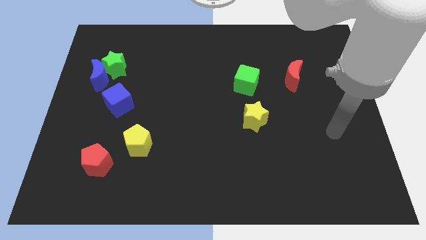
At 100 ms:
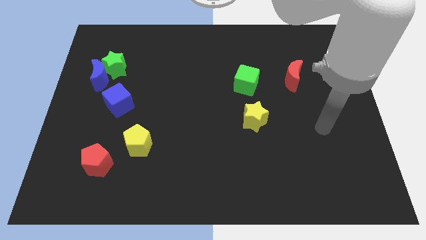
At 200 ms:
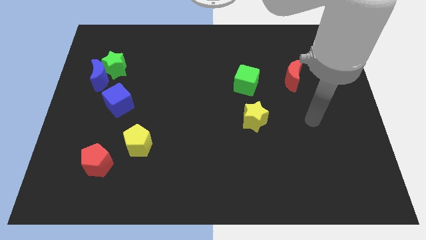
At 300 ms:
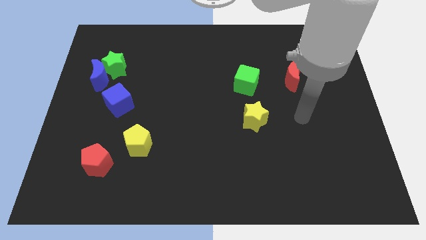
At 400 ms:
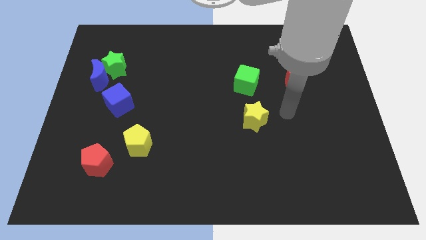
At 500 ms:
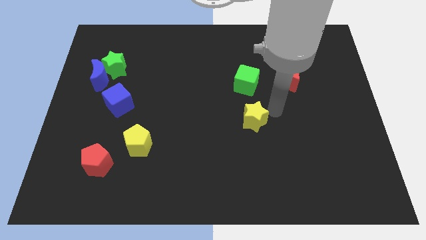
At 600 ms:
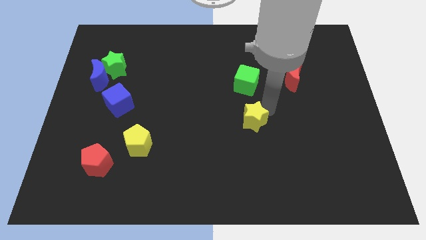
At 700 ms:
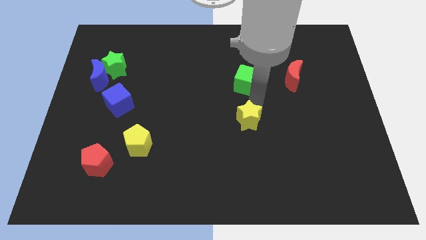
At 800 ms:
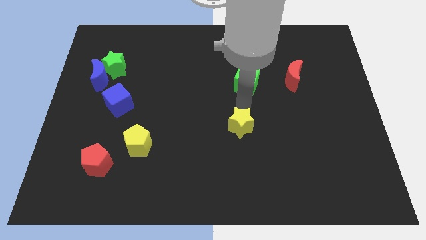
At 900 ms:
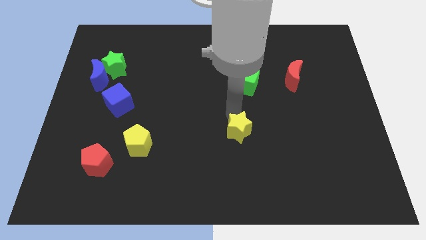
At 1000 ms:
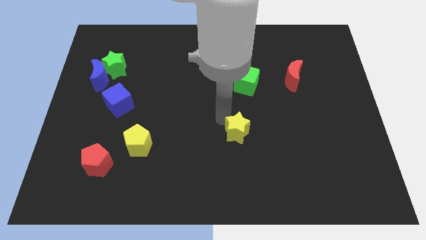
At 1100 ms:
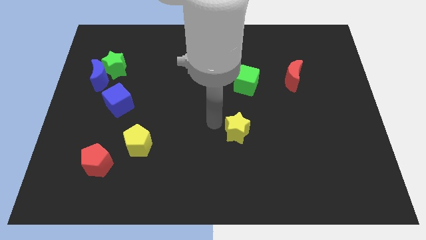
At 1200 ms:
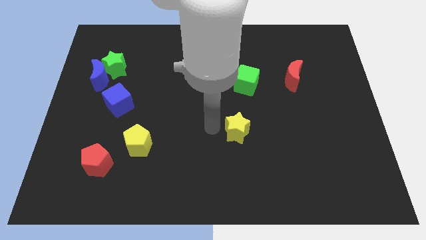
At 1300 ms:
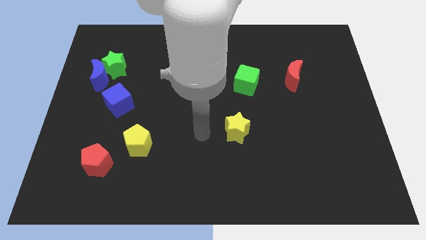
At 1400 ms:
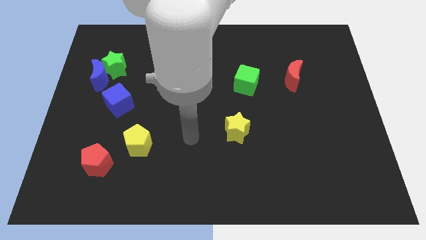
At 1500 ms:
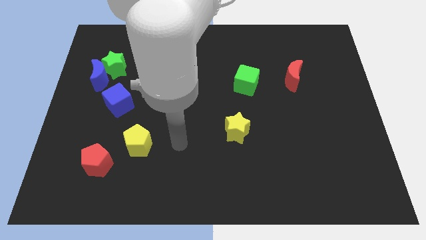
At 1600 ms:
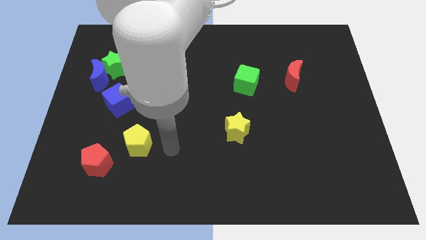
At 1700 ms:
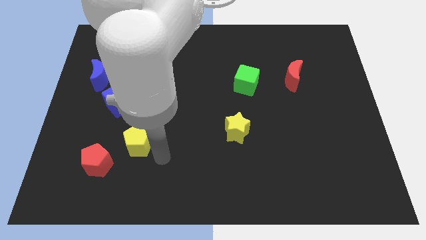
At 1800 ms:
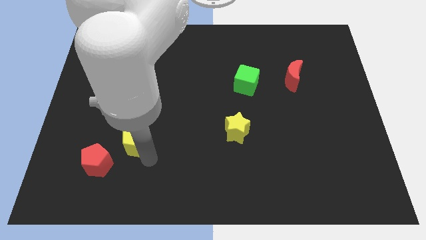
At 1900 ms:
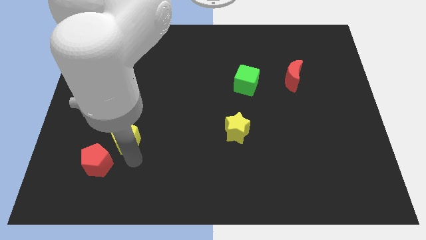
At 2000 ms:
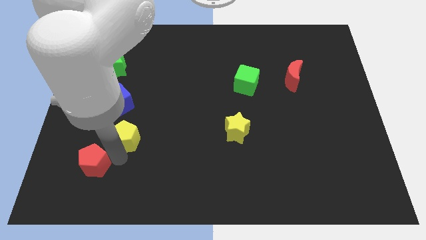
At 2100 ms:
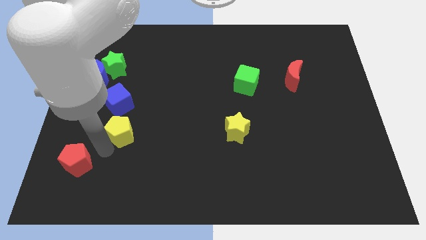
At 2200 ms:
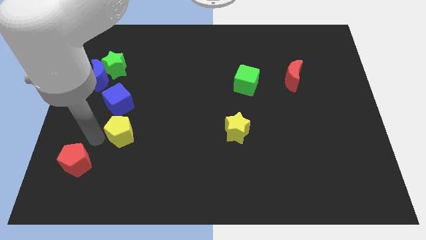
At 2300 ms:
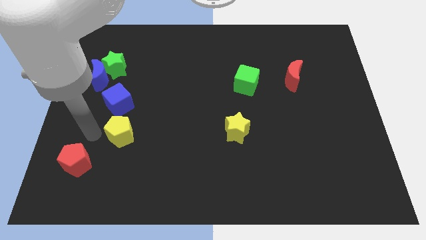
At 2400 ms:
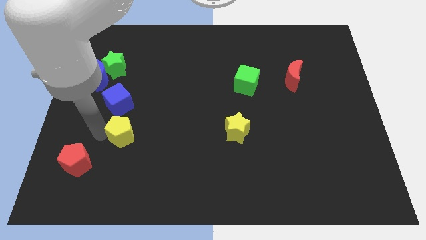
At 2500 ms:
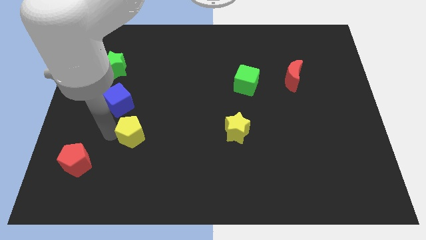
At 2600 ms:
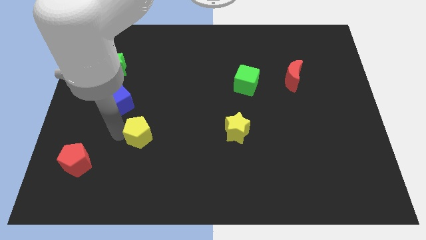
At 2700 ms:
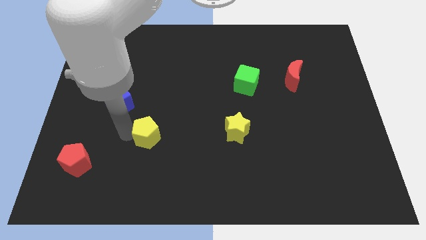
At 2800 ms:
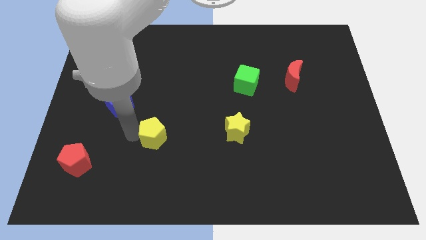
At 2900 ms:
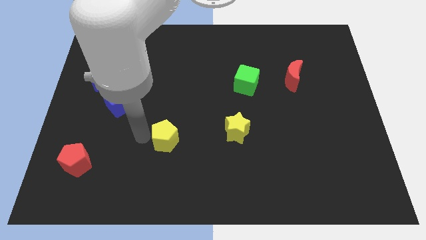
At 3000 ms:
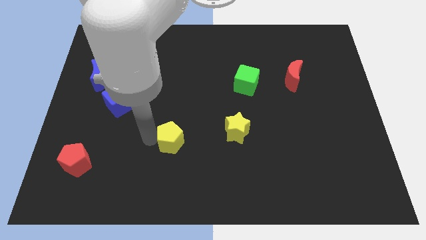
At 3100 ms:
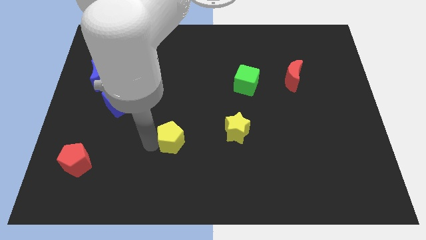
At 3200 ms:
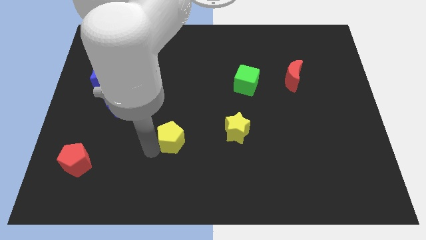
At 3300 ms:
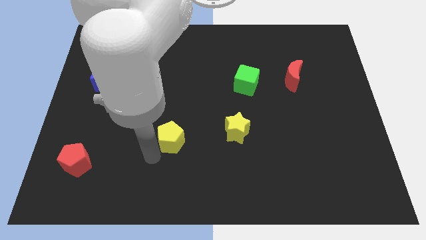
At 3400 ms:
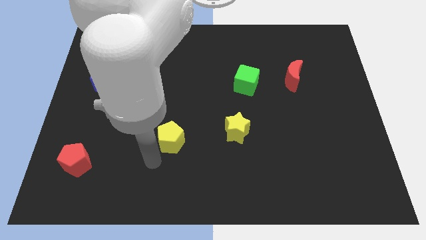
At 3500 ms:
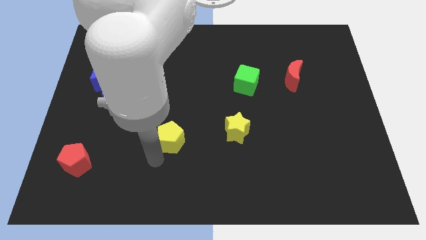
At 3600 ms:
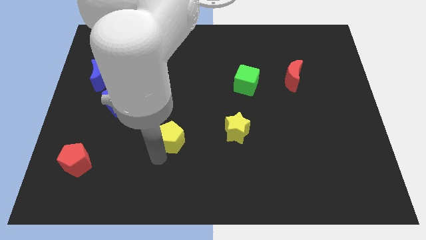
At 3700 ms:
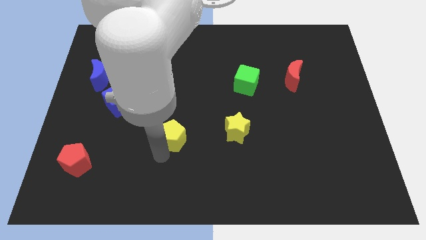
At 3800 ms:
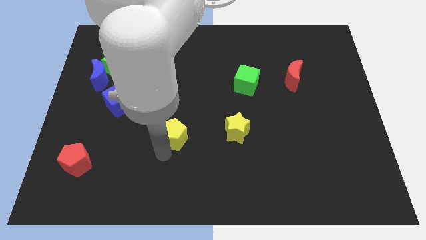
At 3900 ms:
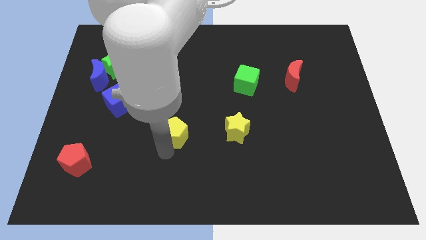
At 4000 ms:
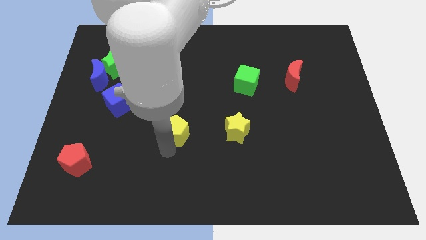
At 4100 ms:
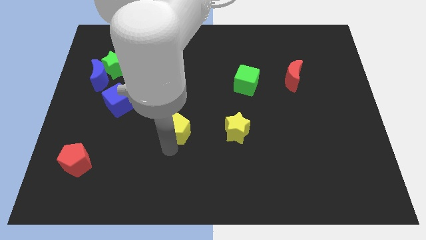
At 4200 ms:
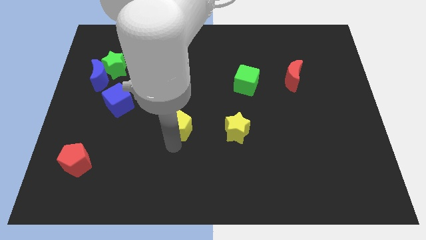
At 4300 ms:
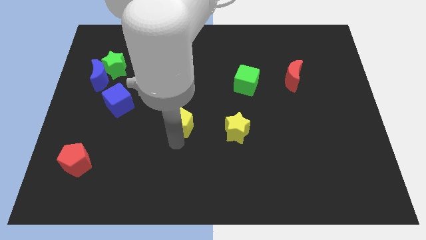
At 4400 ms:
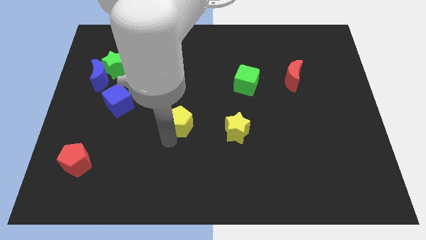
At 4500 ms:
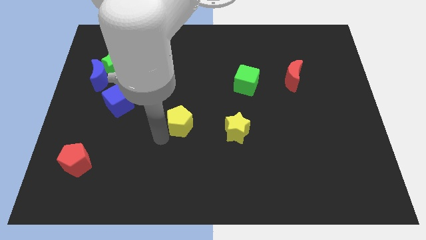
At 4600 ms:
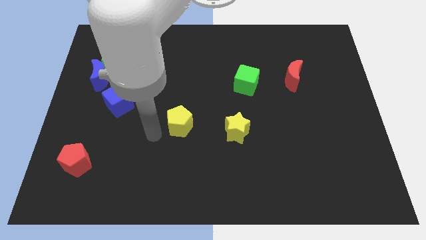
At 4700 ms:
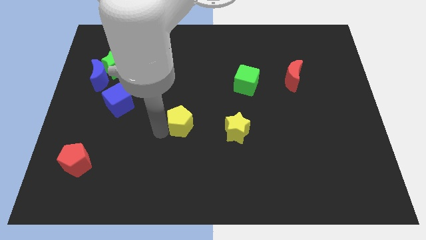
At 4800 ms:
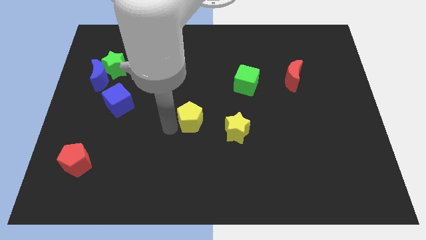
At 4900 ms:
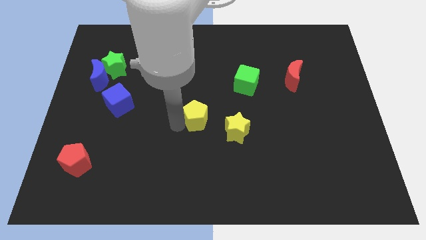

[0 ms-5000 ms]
slide the yellow pentagon to the top left side of the yellow star

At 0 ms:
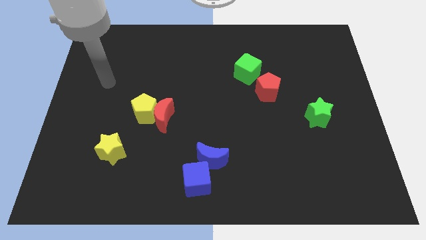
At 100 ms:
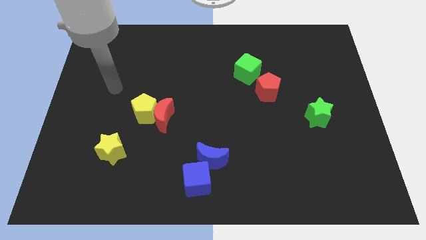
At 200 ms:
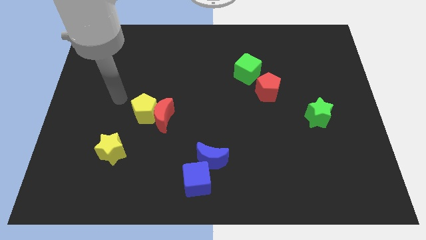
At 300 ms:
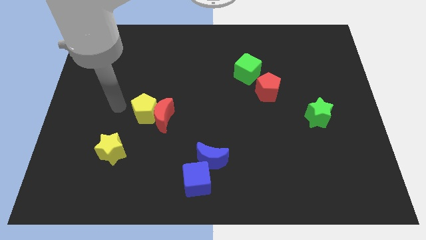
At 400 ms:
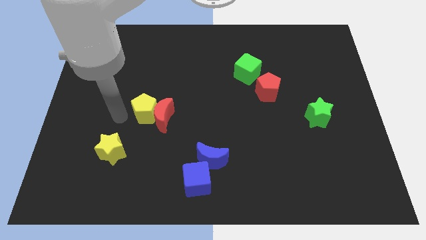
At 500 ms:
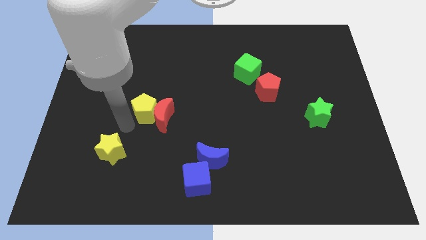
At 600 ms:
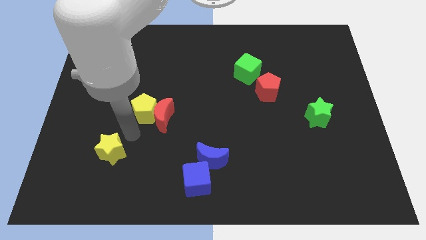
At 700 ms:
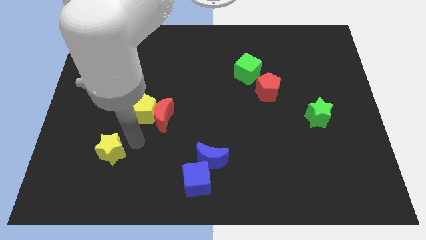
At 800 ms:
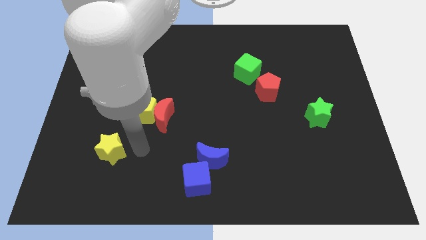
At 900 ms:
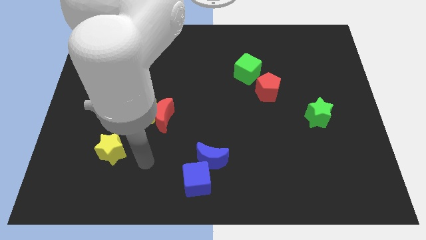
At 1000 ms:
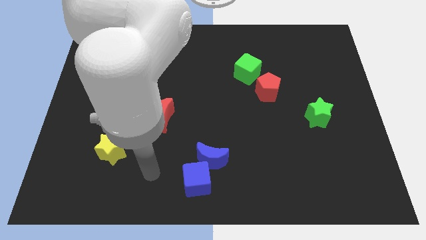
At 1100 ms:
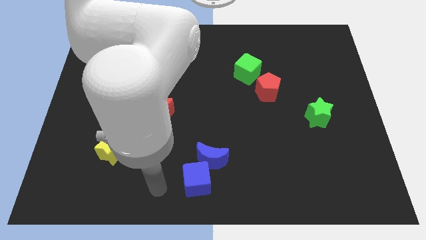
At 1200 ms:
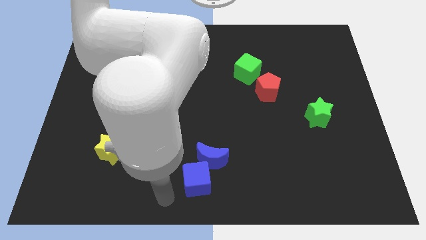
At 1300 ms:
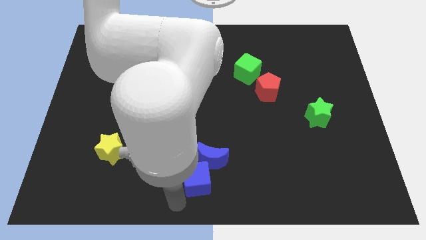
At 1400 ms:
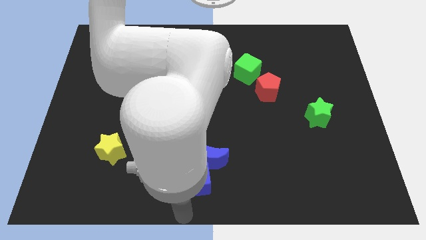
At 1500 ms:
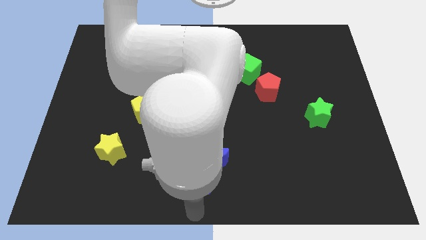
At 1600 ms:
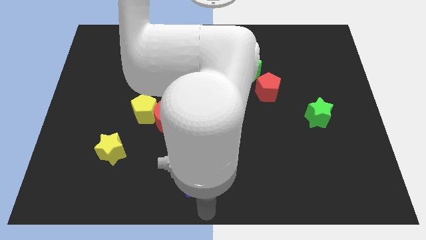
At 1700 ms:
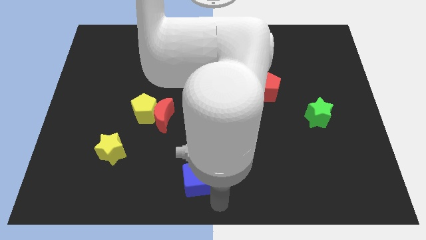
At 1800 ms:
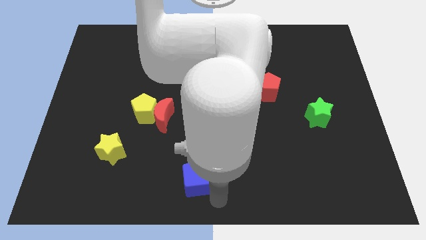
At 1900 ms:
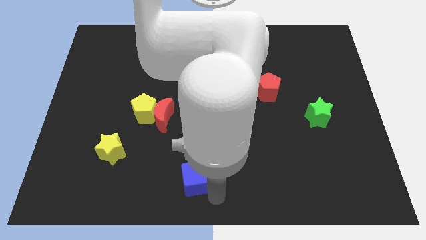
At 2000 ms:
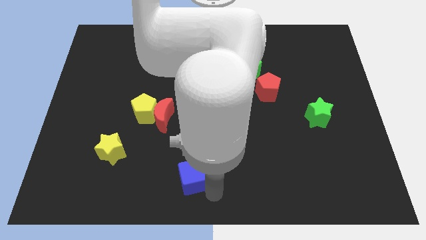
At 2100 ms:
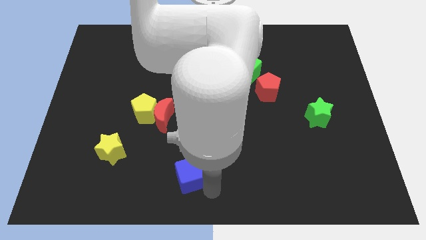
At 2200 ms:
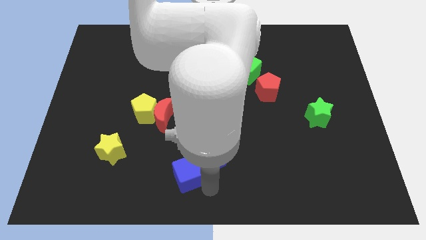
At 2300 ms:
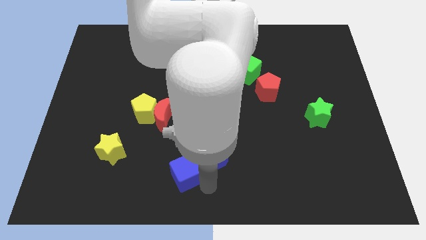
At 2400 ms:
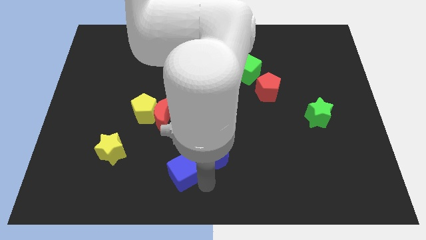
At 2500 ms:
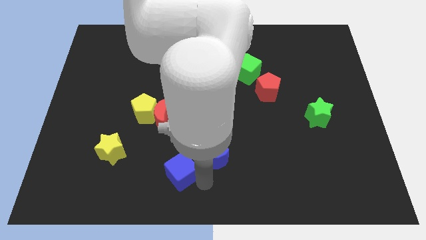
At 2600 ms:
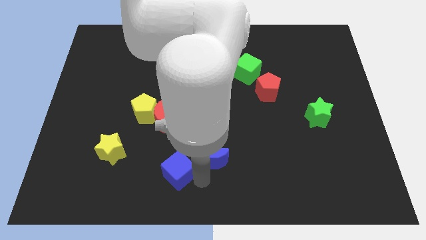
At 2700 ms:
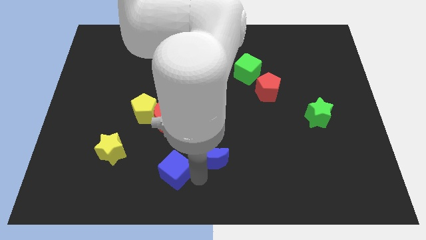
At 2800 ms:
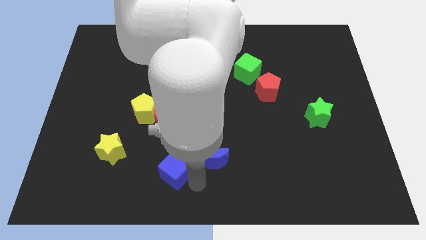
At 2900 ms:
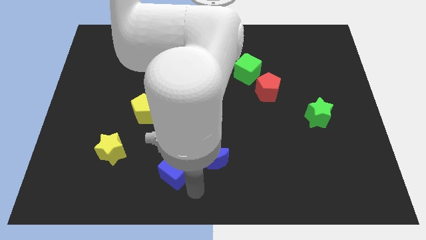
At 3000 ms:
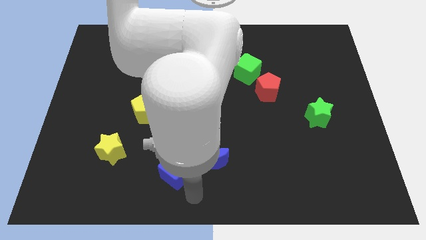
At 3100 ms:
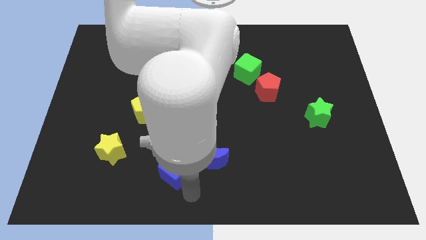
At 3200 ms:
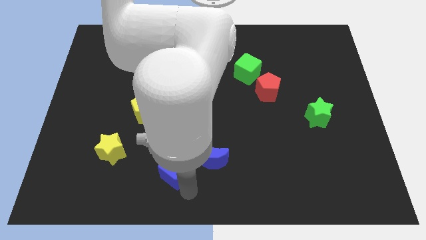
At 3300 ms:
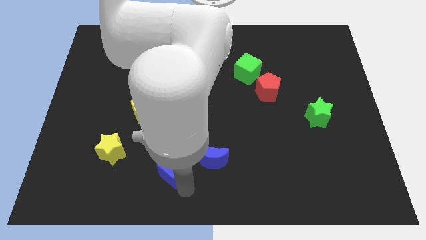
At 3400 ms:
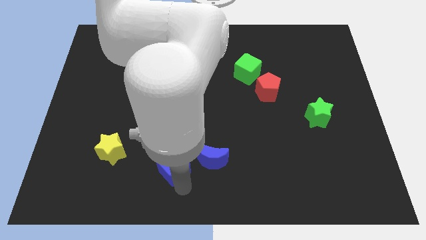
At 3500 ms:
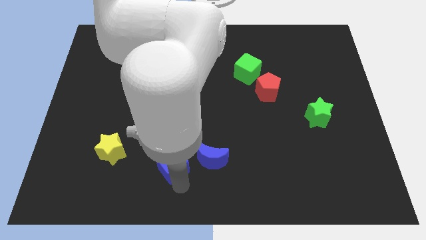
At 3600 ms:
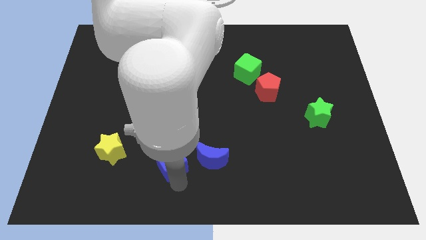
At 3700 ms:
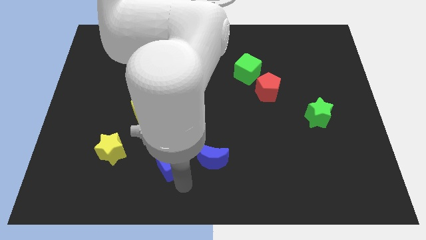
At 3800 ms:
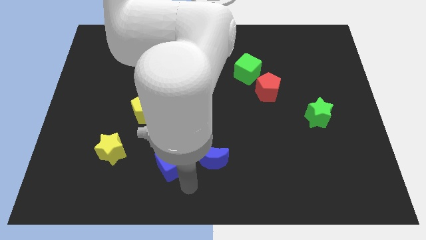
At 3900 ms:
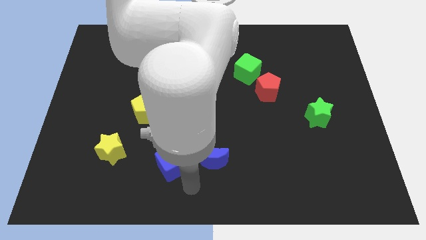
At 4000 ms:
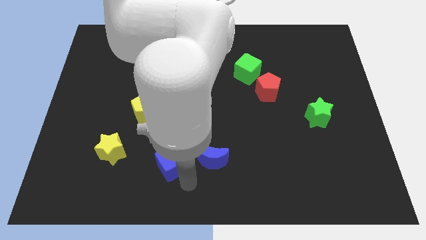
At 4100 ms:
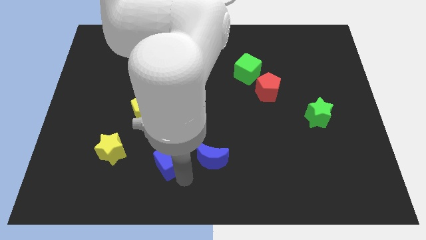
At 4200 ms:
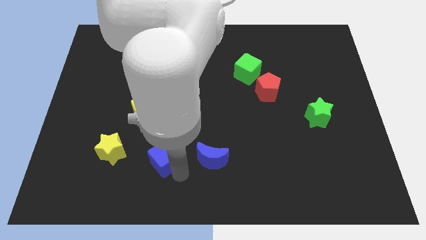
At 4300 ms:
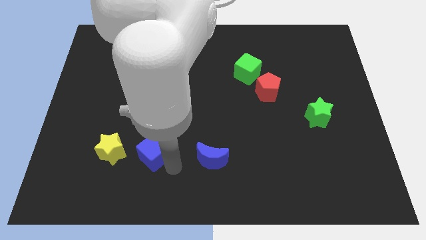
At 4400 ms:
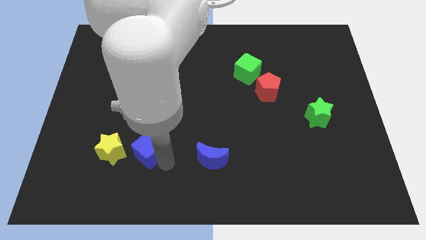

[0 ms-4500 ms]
slide the blue cube diagonally down and to the left of the red moon
